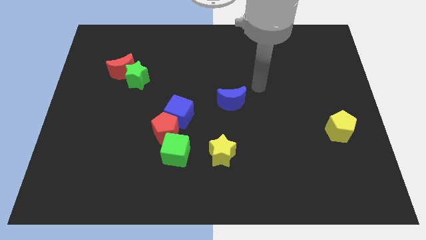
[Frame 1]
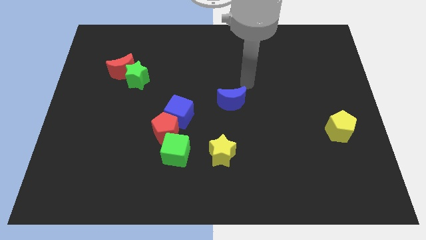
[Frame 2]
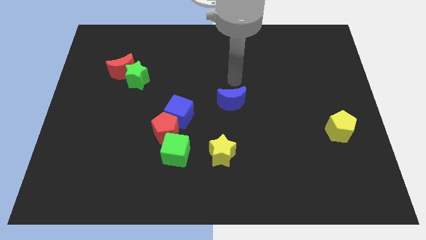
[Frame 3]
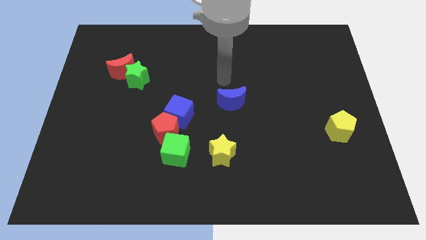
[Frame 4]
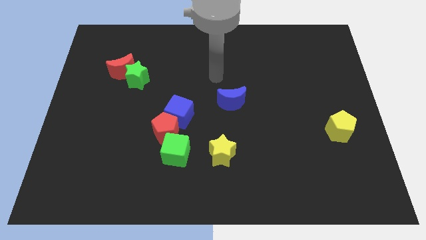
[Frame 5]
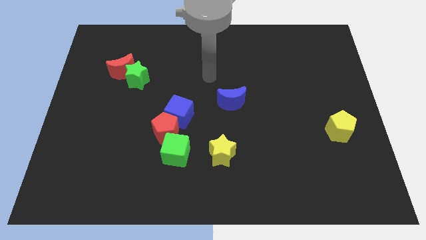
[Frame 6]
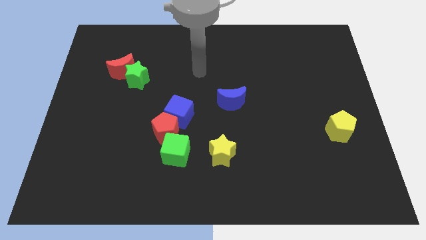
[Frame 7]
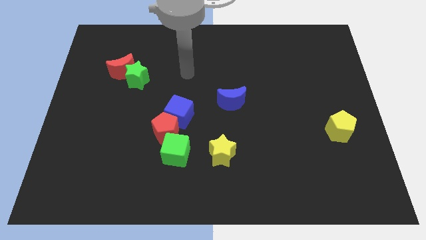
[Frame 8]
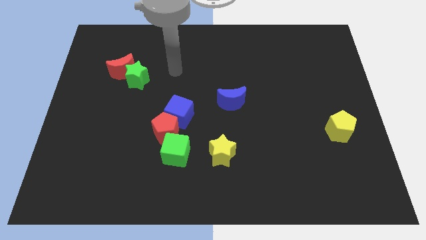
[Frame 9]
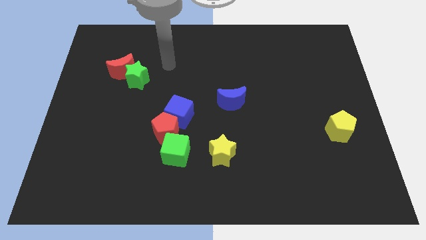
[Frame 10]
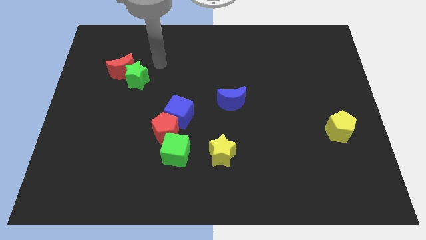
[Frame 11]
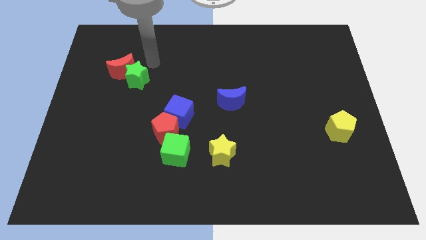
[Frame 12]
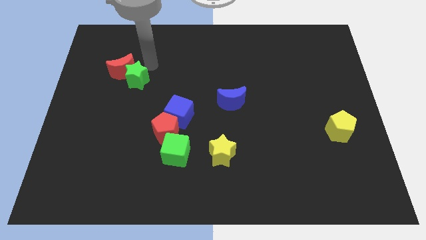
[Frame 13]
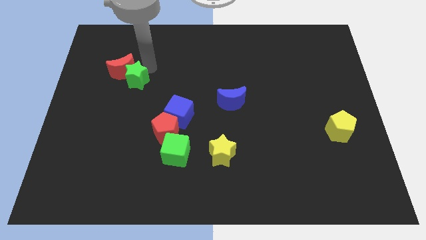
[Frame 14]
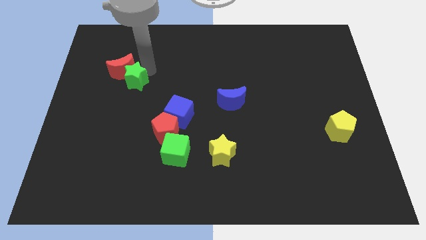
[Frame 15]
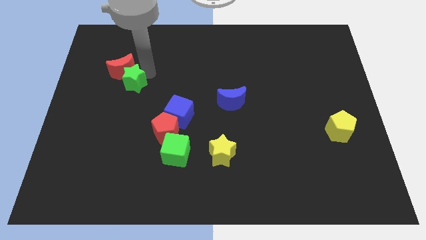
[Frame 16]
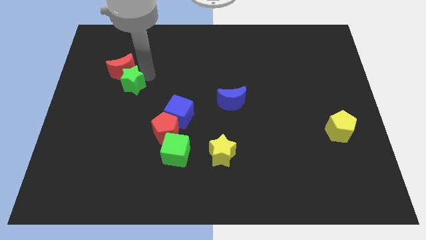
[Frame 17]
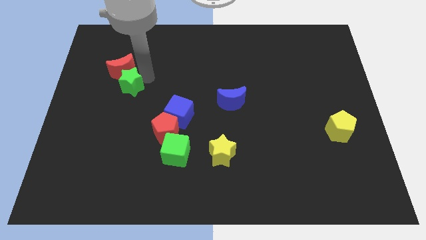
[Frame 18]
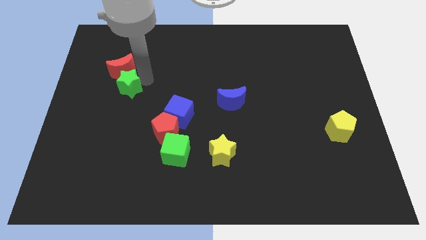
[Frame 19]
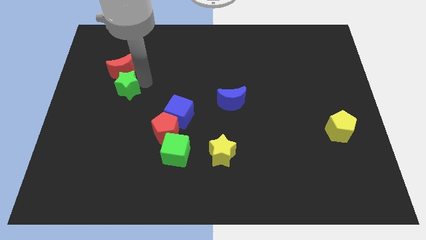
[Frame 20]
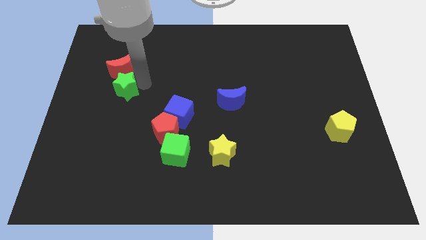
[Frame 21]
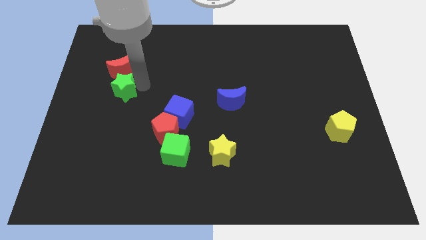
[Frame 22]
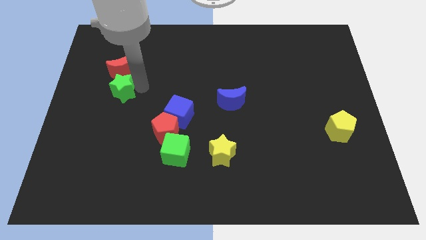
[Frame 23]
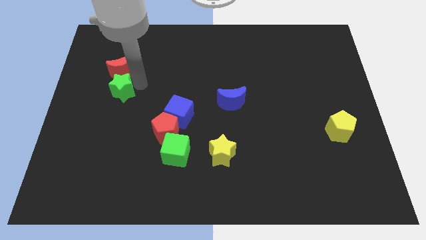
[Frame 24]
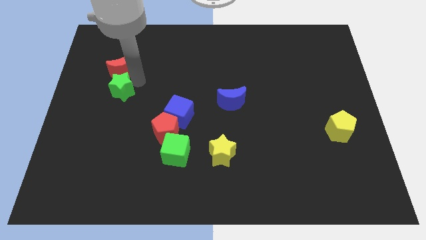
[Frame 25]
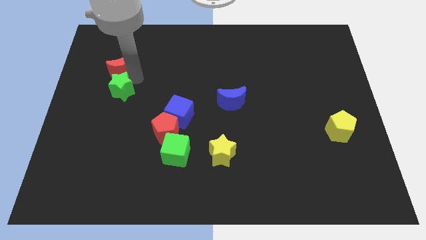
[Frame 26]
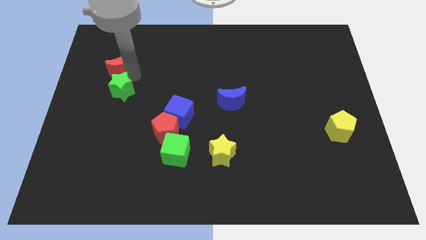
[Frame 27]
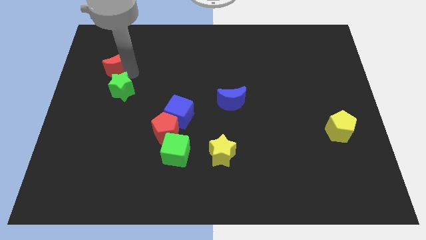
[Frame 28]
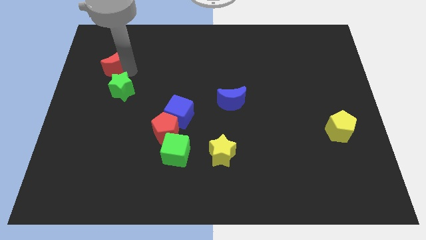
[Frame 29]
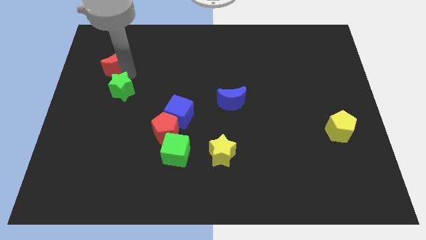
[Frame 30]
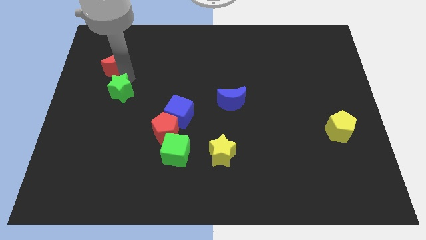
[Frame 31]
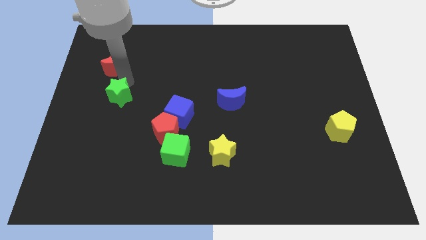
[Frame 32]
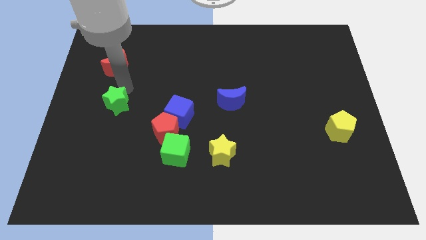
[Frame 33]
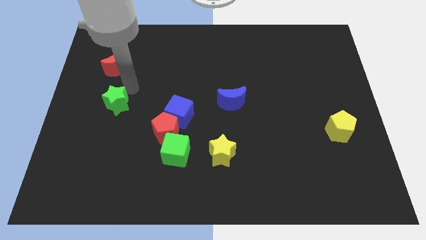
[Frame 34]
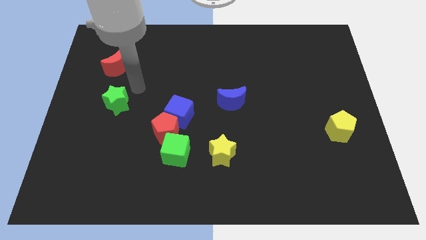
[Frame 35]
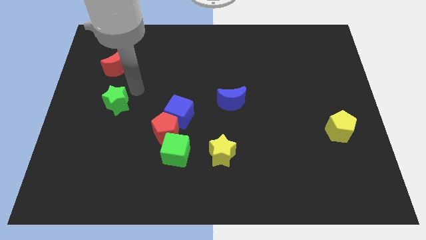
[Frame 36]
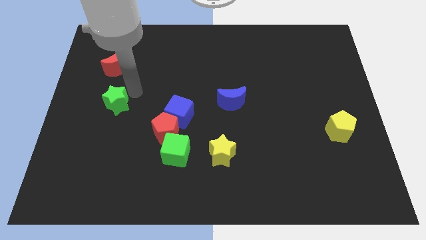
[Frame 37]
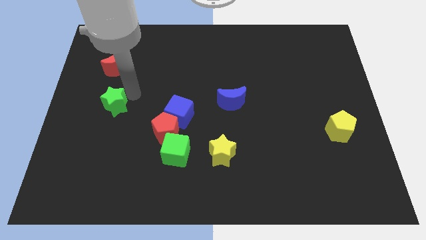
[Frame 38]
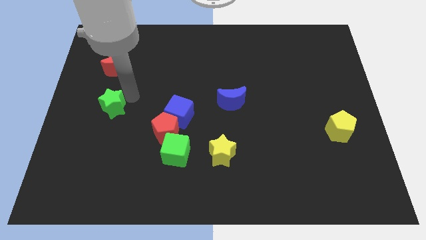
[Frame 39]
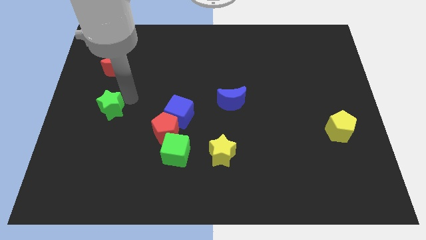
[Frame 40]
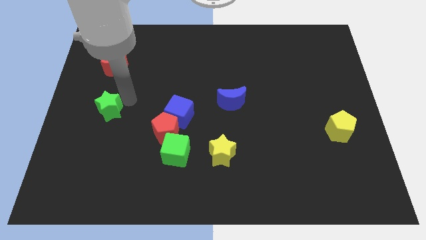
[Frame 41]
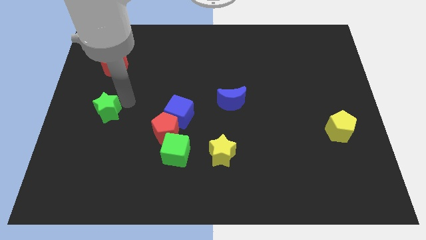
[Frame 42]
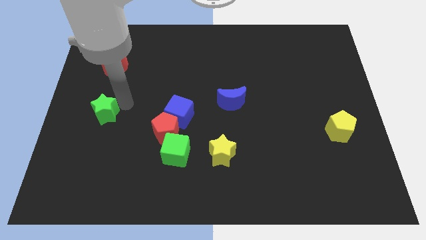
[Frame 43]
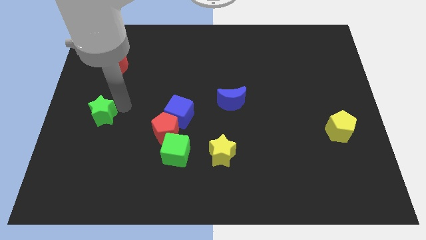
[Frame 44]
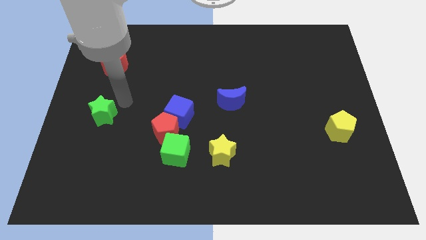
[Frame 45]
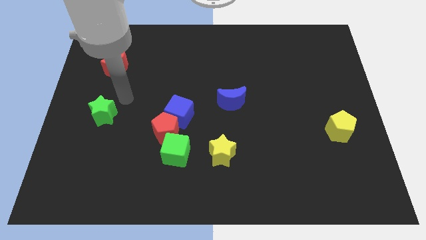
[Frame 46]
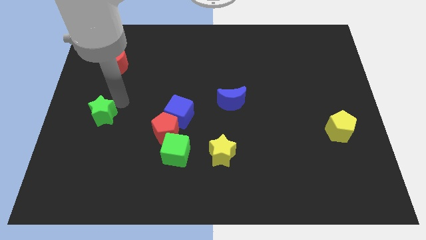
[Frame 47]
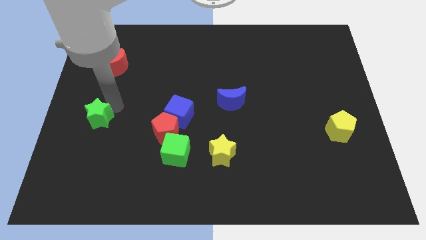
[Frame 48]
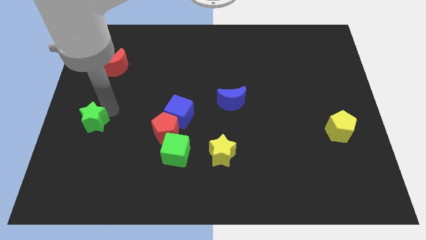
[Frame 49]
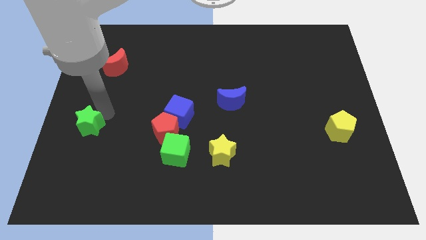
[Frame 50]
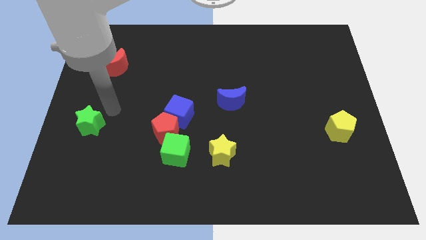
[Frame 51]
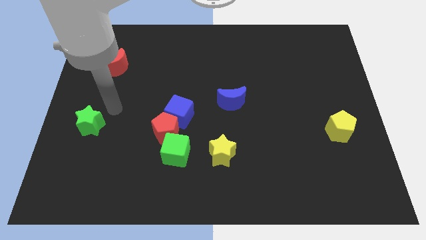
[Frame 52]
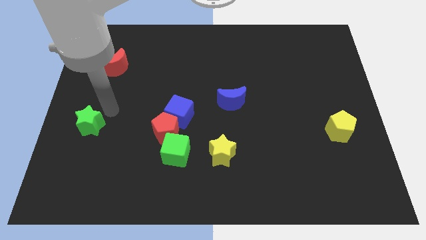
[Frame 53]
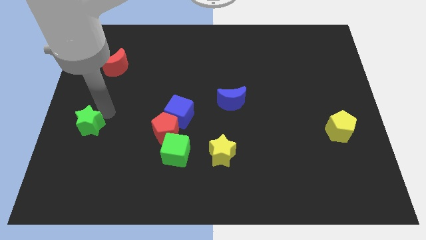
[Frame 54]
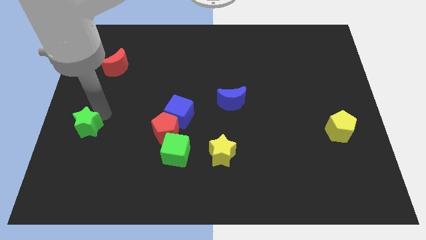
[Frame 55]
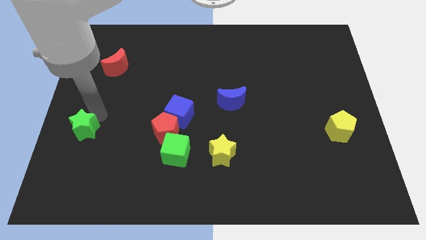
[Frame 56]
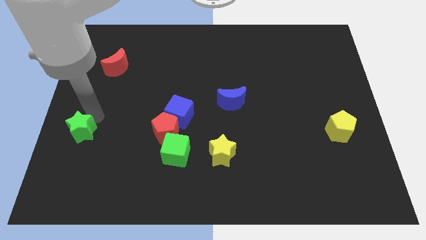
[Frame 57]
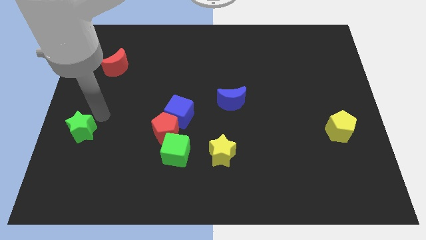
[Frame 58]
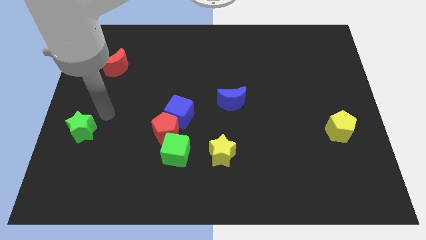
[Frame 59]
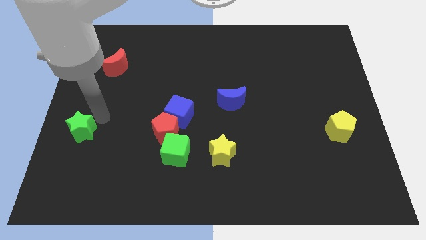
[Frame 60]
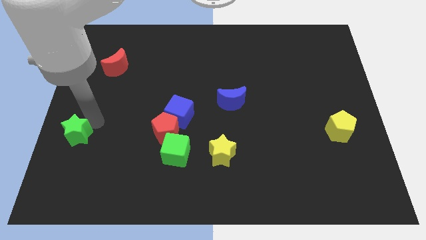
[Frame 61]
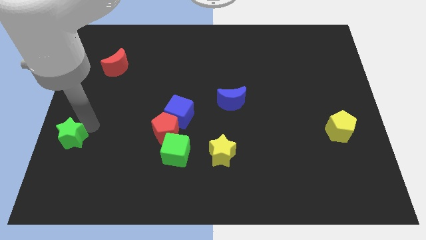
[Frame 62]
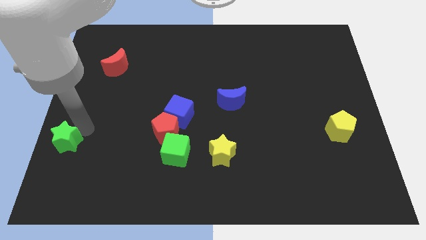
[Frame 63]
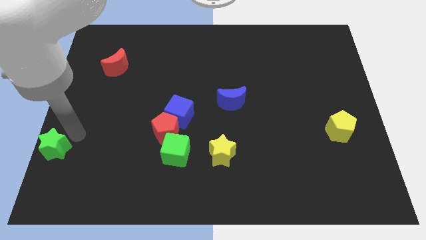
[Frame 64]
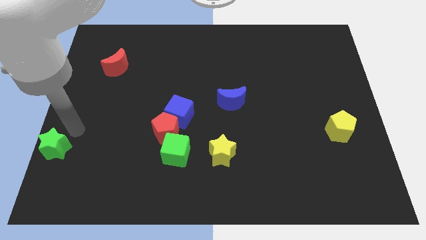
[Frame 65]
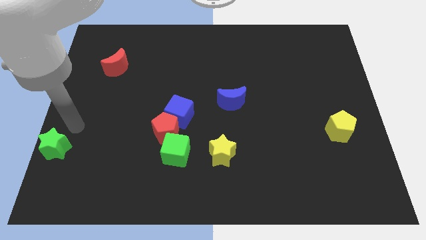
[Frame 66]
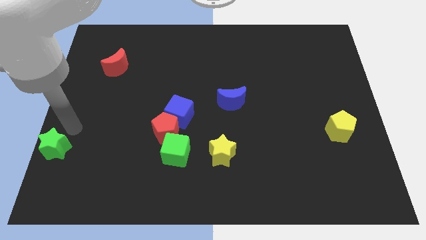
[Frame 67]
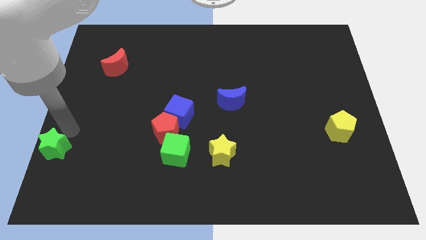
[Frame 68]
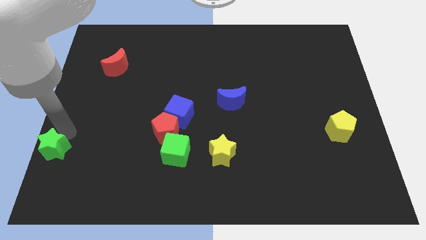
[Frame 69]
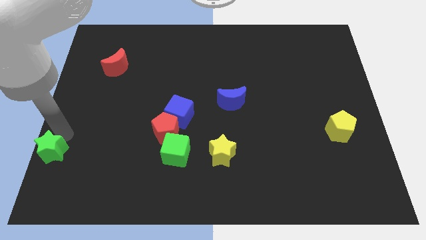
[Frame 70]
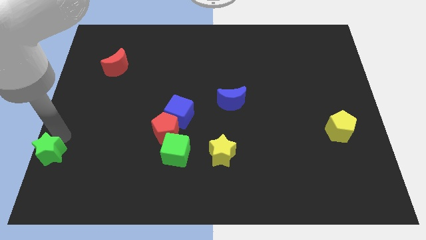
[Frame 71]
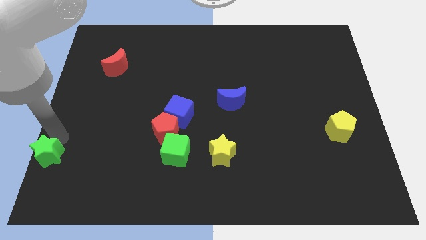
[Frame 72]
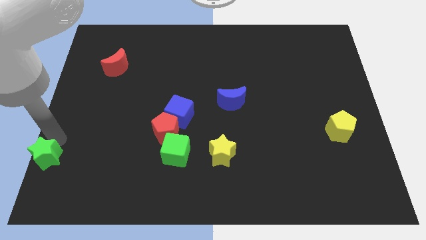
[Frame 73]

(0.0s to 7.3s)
move the green star to the bottom left corner
